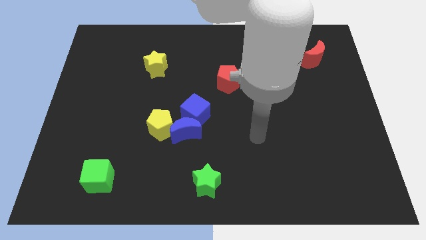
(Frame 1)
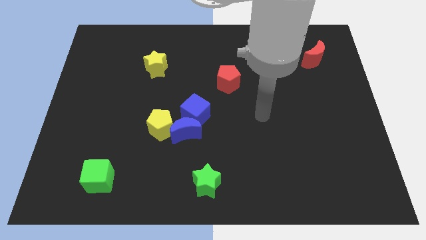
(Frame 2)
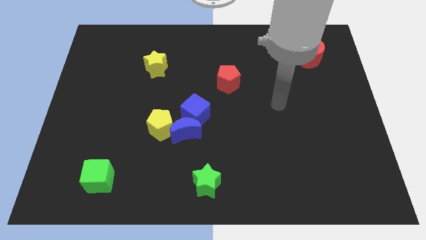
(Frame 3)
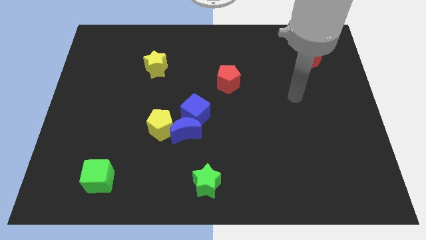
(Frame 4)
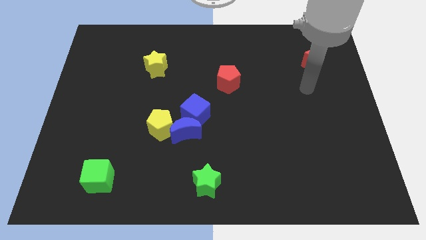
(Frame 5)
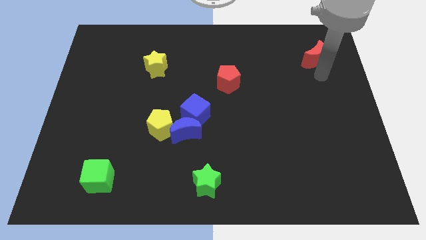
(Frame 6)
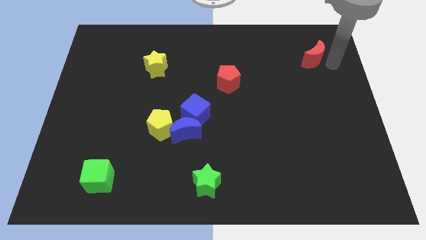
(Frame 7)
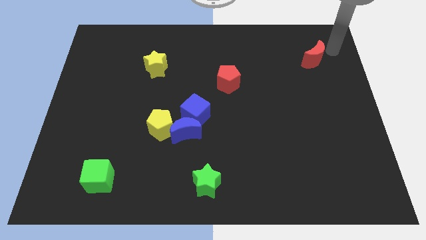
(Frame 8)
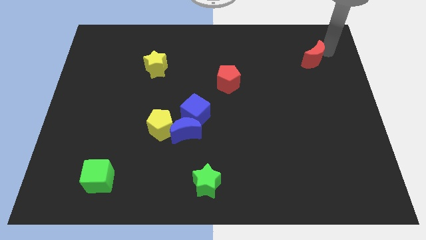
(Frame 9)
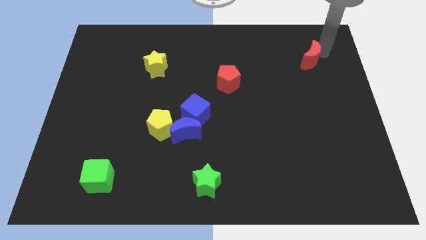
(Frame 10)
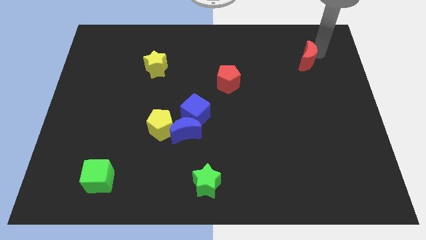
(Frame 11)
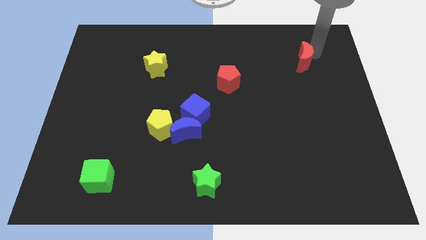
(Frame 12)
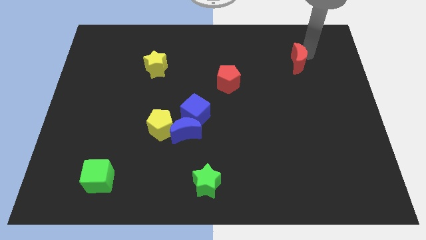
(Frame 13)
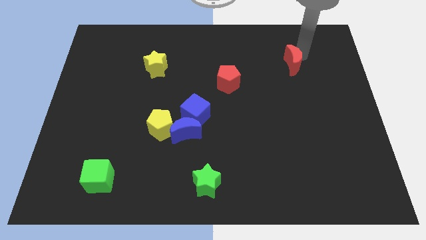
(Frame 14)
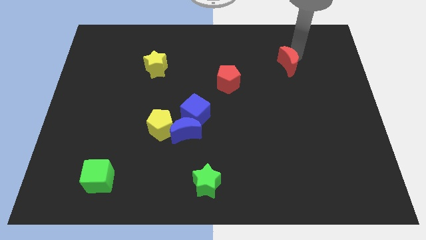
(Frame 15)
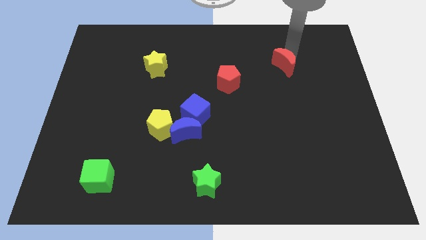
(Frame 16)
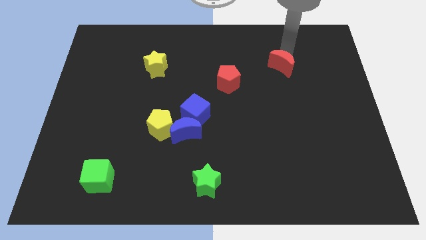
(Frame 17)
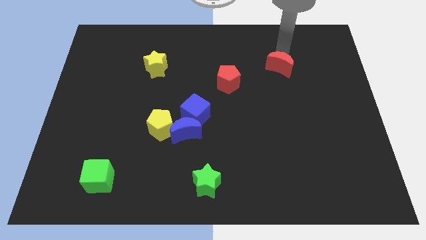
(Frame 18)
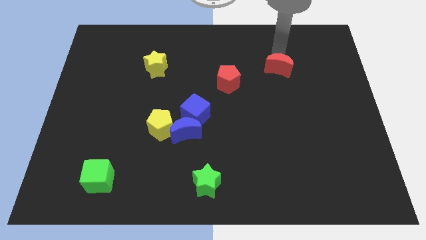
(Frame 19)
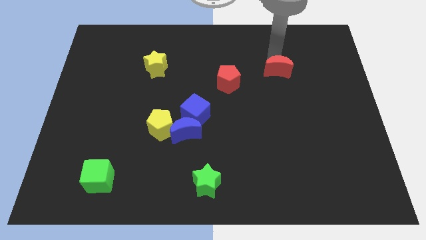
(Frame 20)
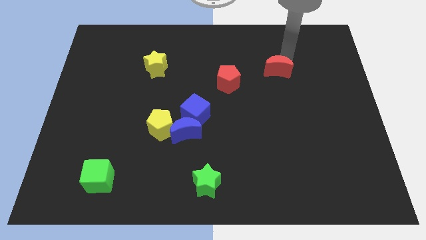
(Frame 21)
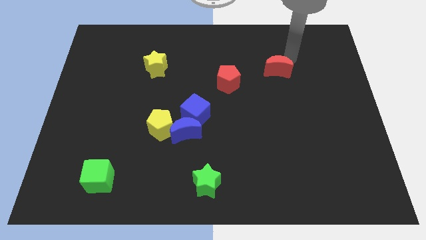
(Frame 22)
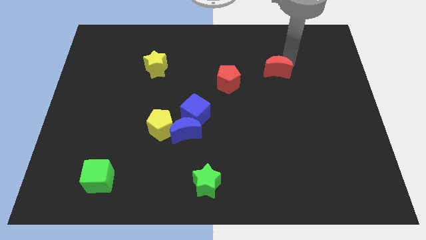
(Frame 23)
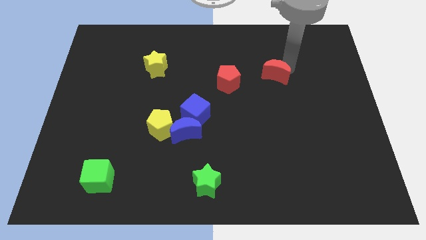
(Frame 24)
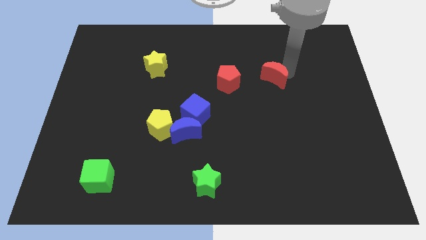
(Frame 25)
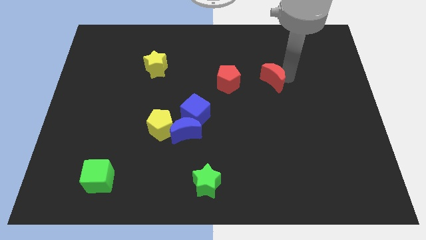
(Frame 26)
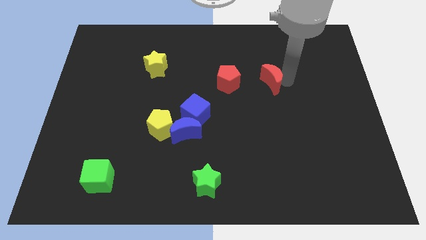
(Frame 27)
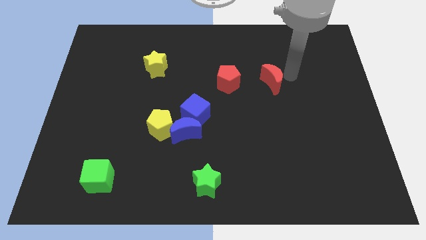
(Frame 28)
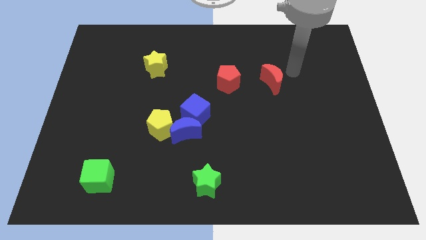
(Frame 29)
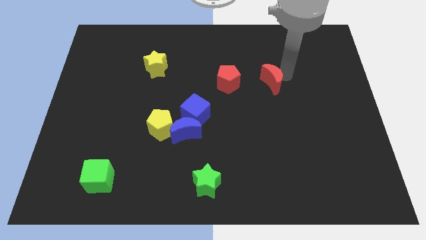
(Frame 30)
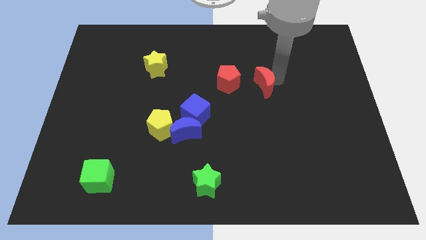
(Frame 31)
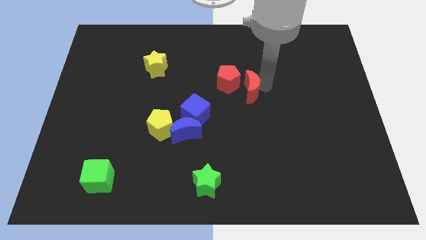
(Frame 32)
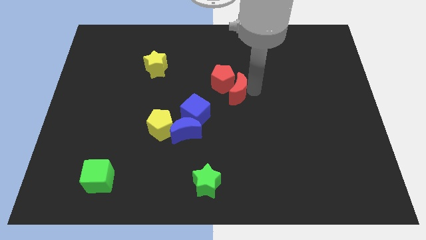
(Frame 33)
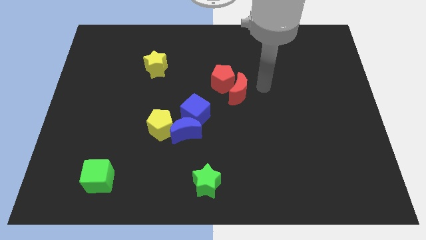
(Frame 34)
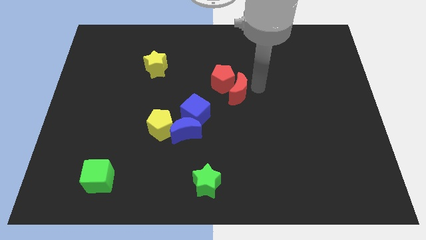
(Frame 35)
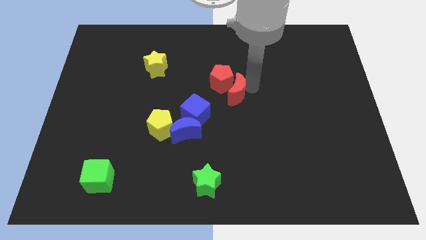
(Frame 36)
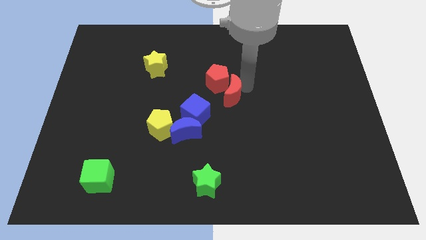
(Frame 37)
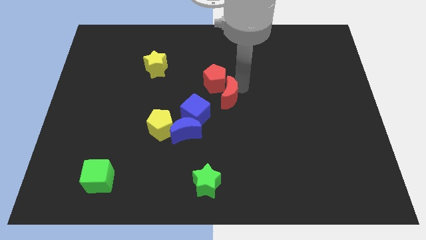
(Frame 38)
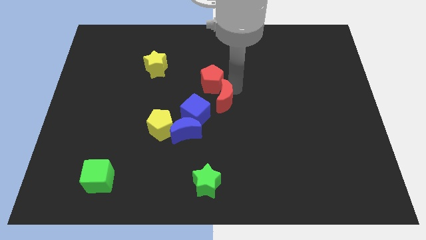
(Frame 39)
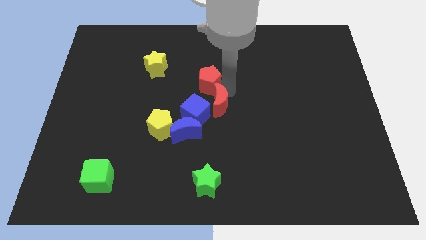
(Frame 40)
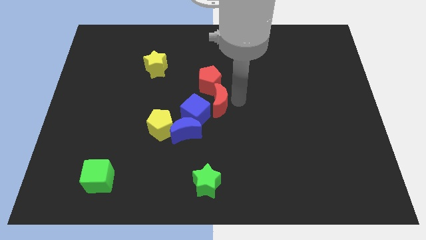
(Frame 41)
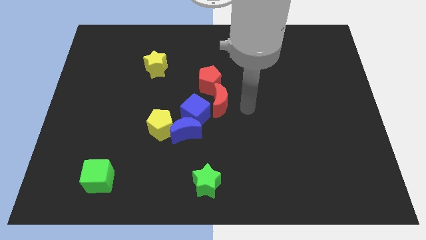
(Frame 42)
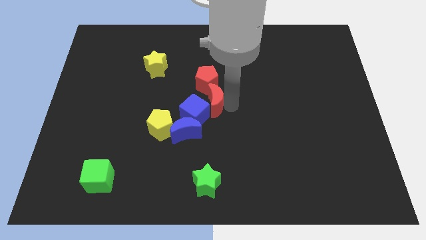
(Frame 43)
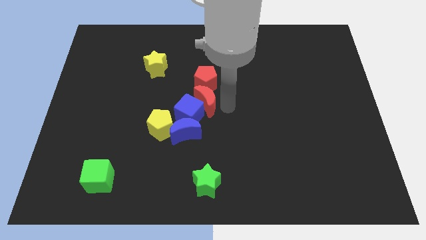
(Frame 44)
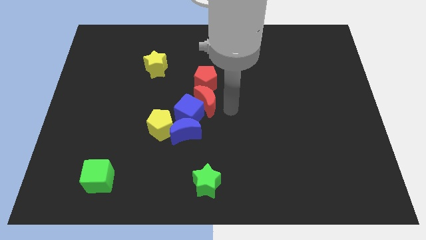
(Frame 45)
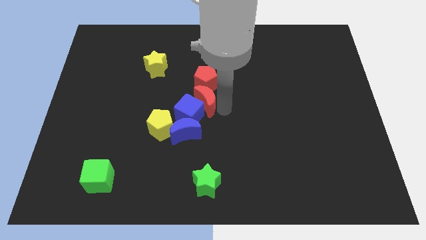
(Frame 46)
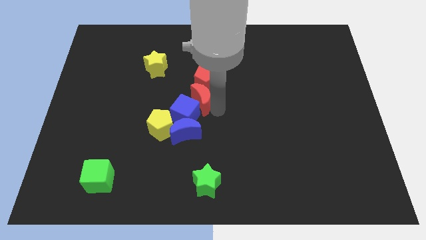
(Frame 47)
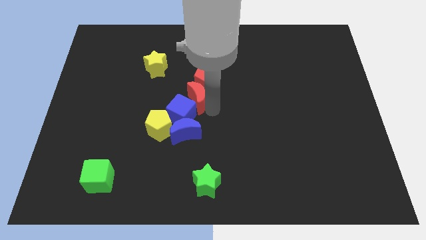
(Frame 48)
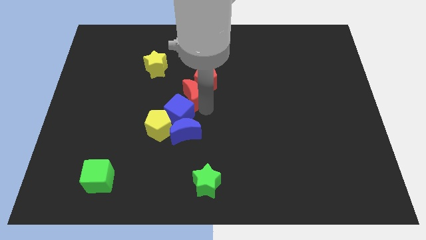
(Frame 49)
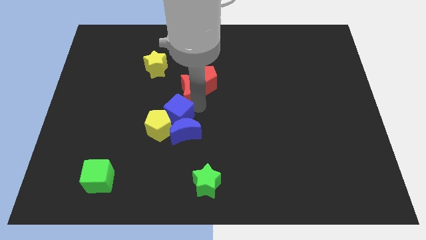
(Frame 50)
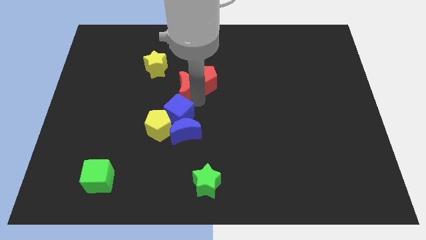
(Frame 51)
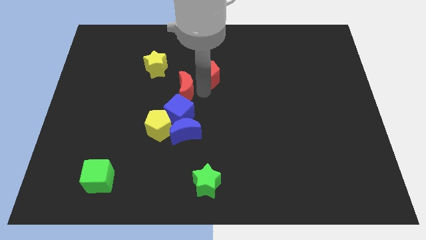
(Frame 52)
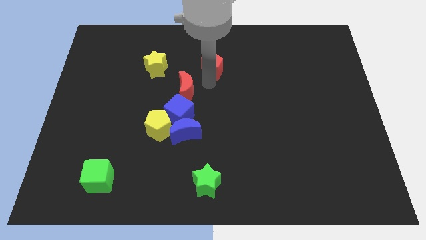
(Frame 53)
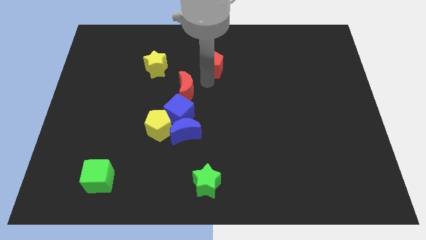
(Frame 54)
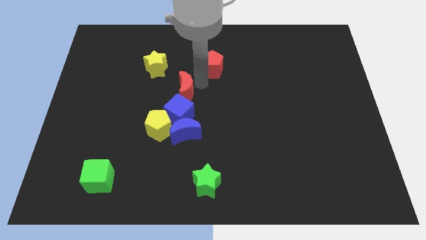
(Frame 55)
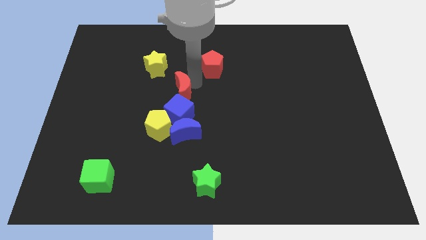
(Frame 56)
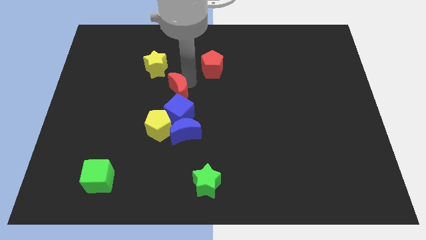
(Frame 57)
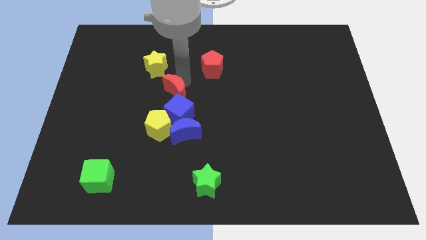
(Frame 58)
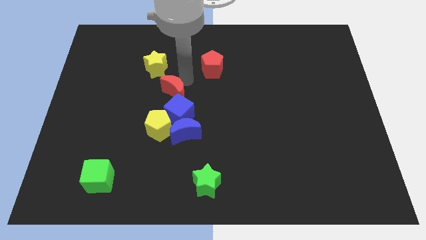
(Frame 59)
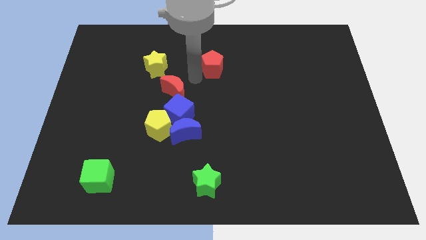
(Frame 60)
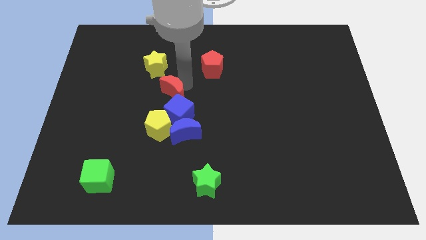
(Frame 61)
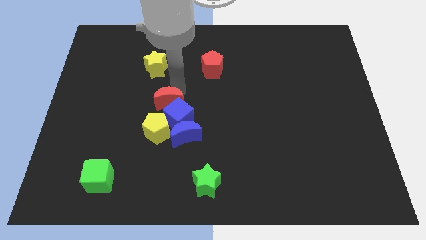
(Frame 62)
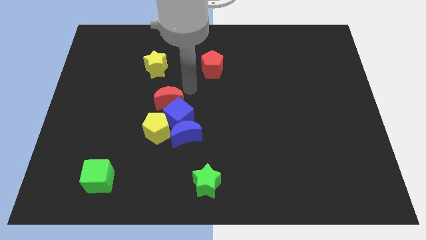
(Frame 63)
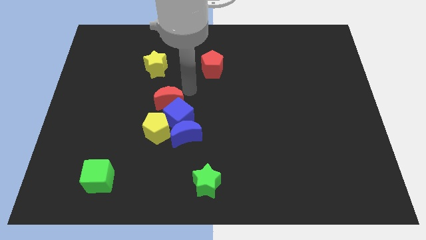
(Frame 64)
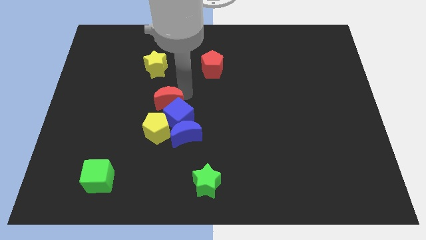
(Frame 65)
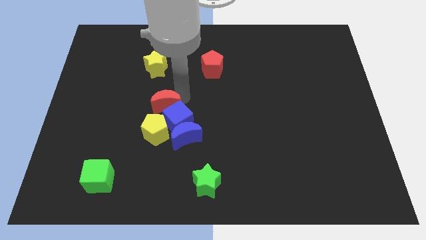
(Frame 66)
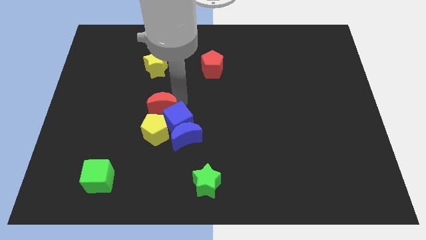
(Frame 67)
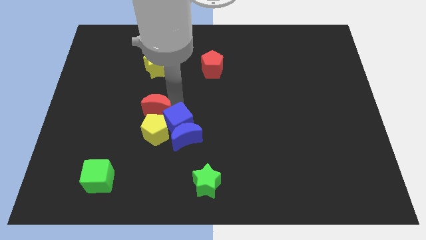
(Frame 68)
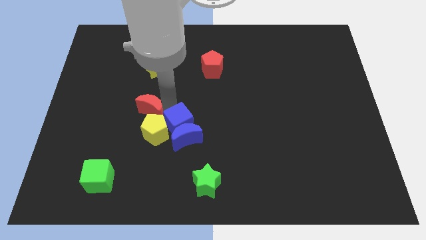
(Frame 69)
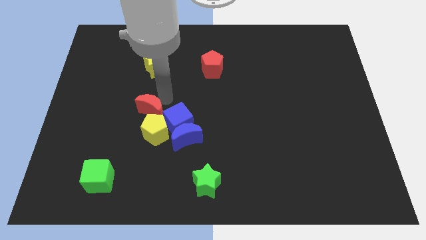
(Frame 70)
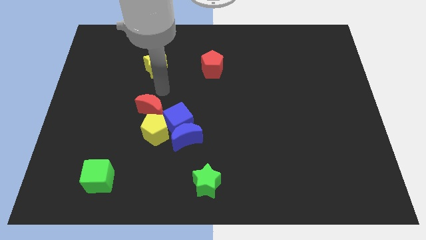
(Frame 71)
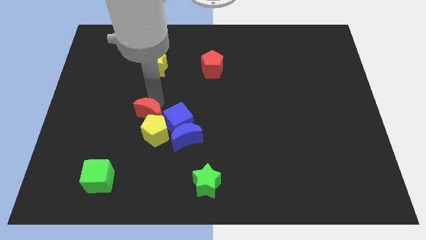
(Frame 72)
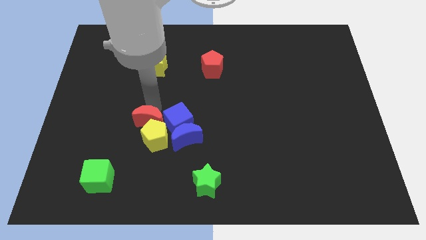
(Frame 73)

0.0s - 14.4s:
put the red moon just left of the blue moon
